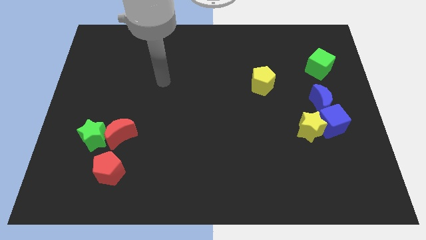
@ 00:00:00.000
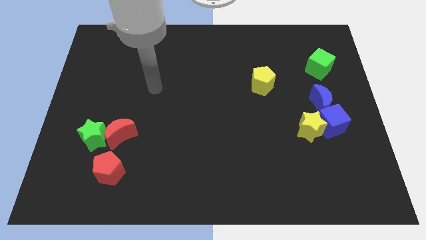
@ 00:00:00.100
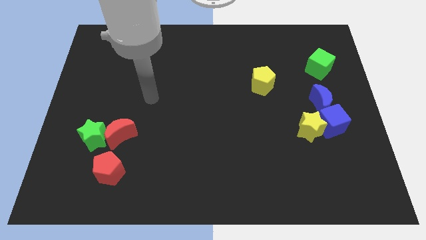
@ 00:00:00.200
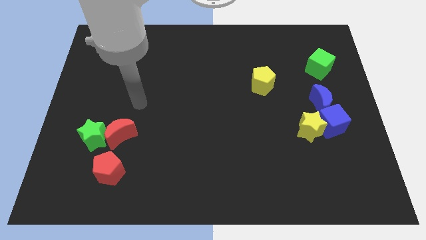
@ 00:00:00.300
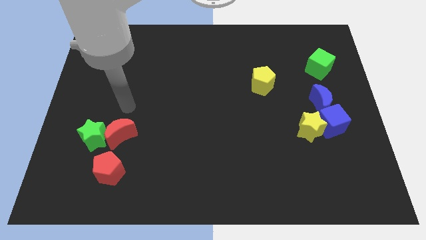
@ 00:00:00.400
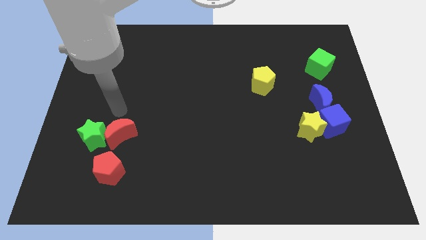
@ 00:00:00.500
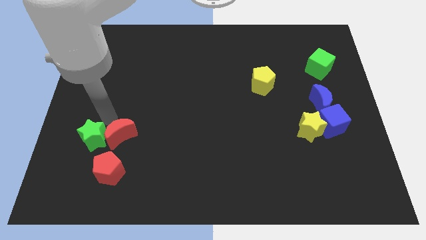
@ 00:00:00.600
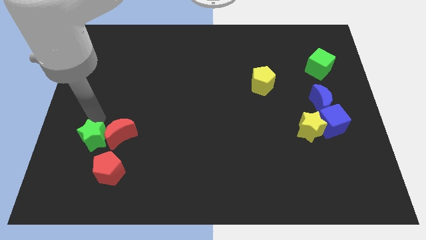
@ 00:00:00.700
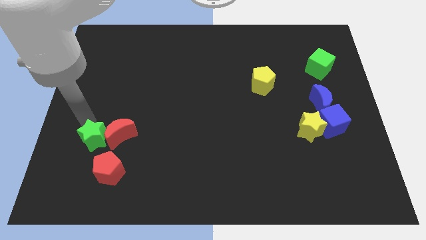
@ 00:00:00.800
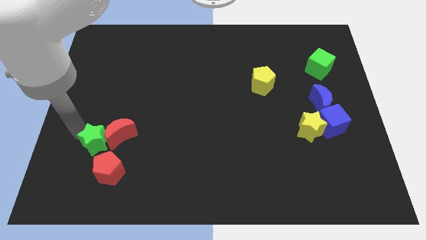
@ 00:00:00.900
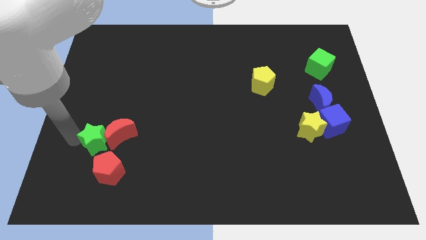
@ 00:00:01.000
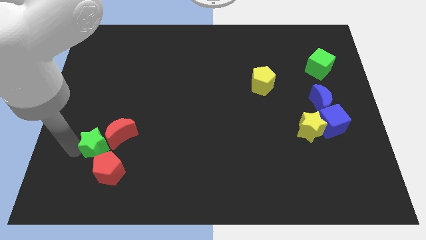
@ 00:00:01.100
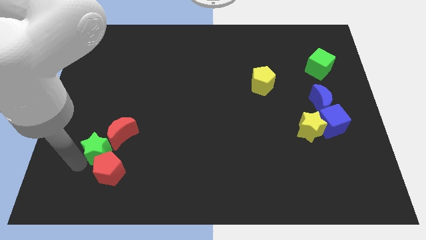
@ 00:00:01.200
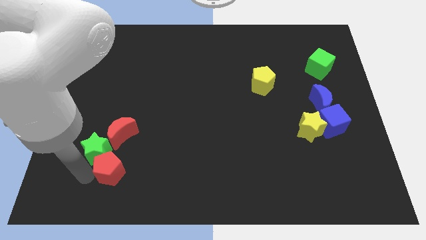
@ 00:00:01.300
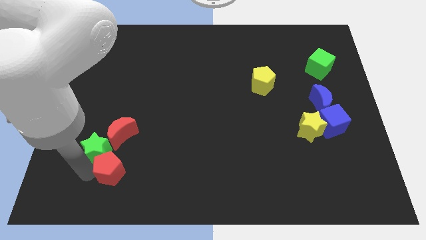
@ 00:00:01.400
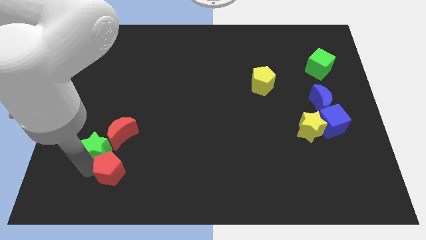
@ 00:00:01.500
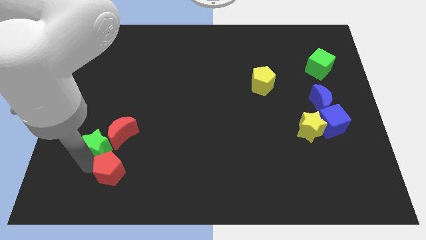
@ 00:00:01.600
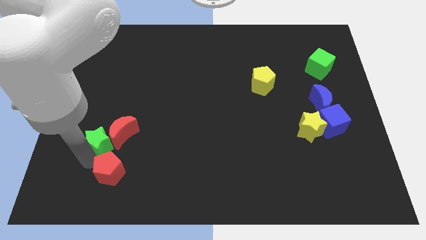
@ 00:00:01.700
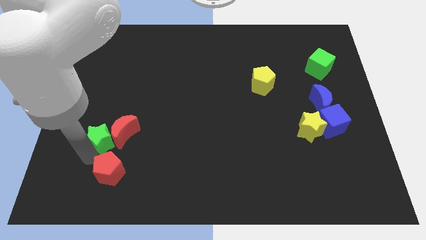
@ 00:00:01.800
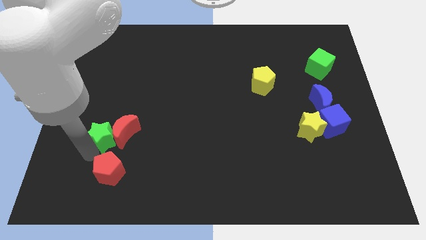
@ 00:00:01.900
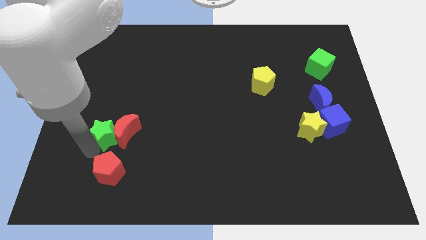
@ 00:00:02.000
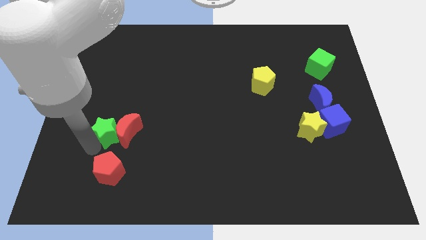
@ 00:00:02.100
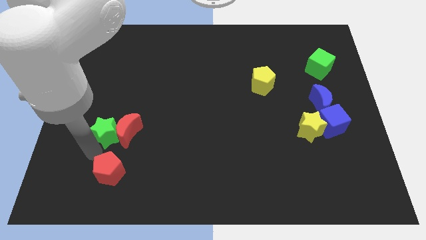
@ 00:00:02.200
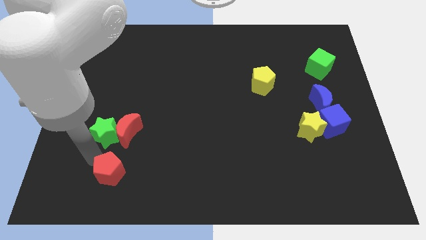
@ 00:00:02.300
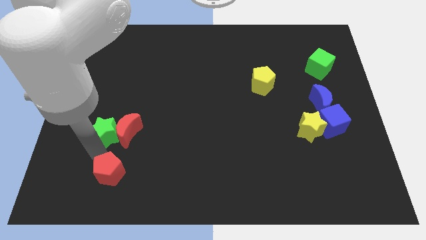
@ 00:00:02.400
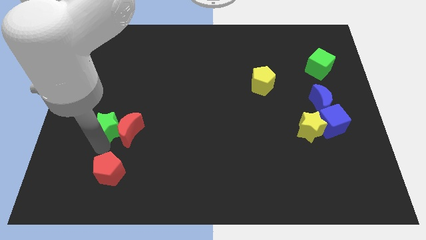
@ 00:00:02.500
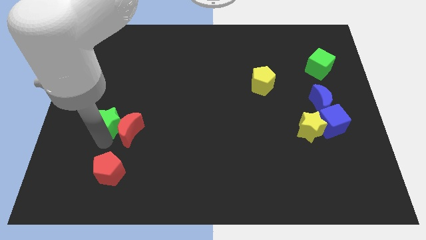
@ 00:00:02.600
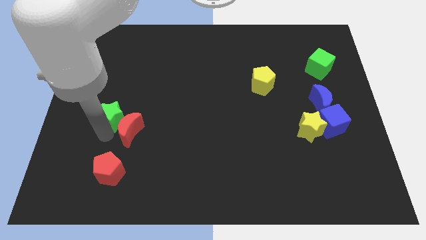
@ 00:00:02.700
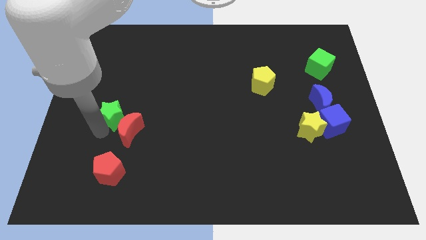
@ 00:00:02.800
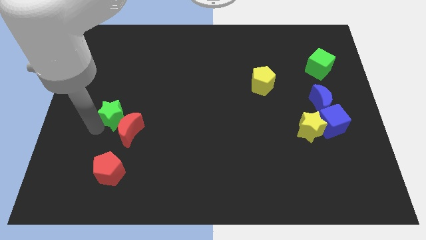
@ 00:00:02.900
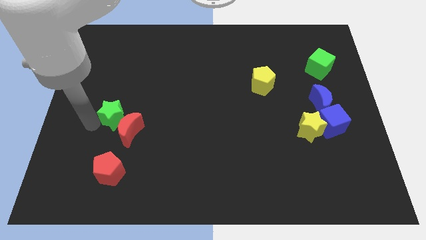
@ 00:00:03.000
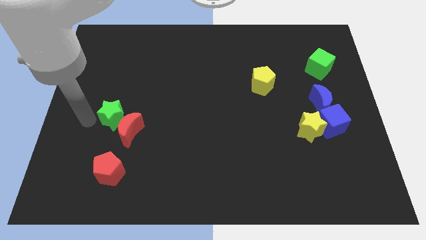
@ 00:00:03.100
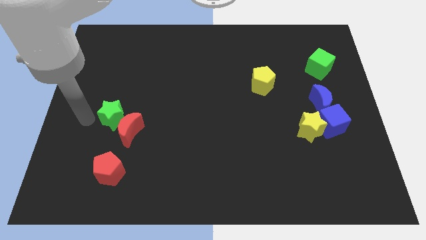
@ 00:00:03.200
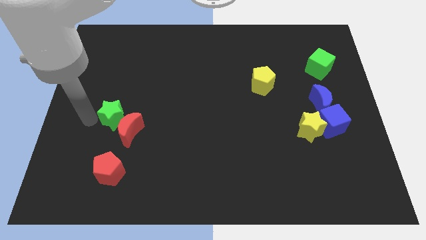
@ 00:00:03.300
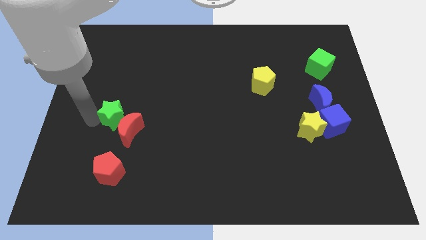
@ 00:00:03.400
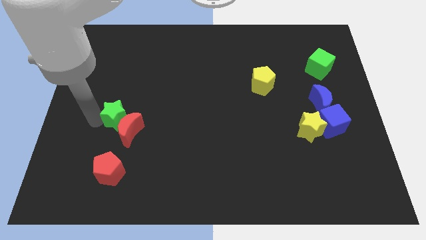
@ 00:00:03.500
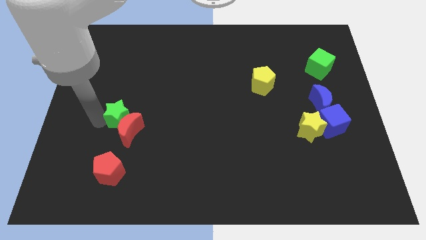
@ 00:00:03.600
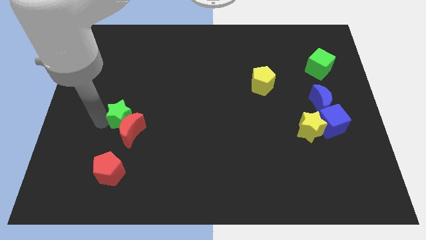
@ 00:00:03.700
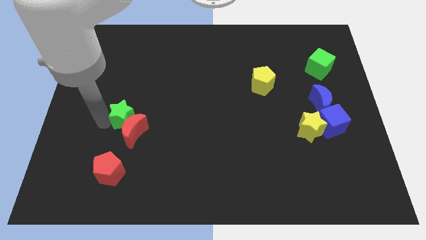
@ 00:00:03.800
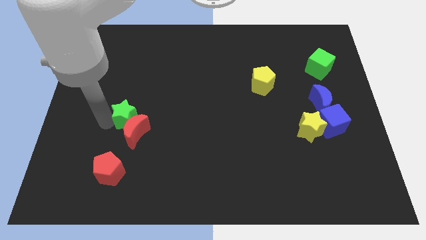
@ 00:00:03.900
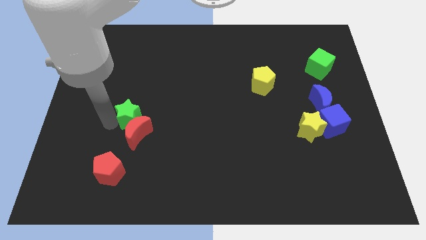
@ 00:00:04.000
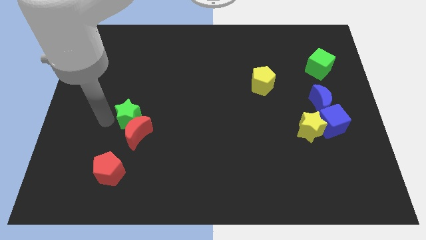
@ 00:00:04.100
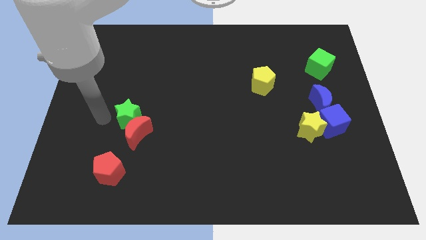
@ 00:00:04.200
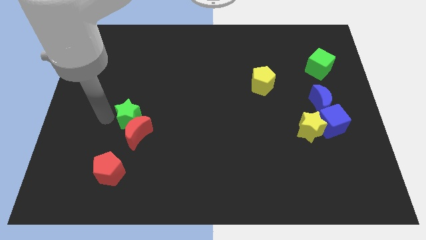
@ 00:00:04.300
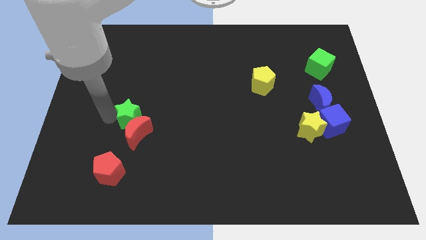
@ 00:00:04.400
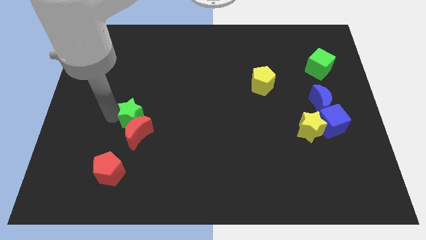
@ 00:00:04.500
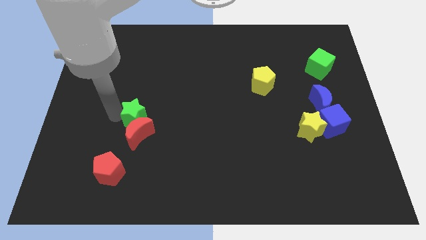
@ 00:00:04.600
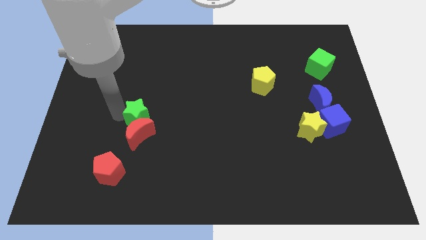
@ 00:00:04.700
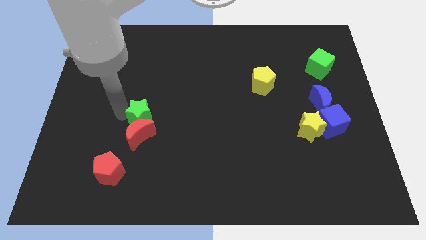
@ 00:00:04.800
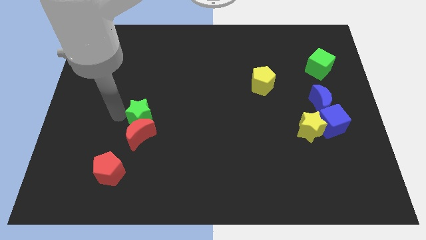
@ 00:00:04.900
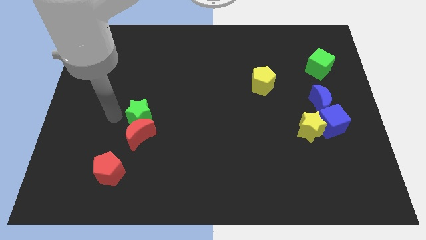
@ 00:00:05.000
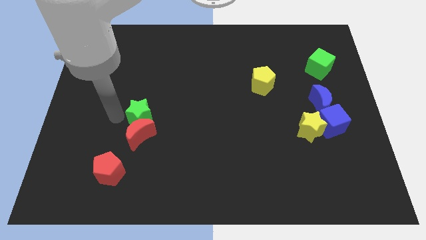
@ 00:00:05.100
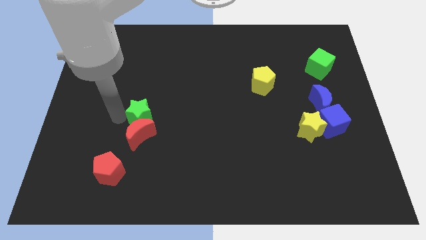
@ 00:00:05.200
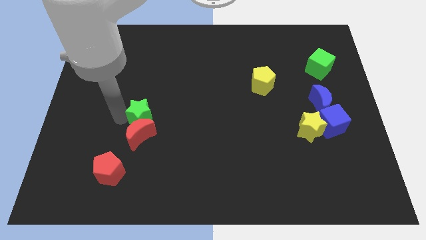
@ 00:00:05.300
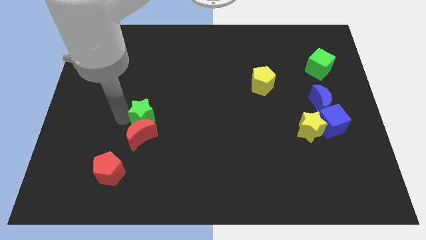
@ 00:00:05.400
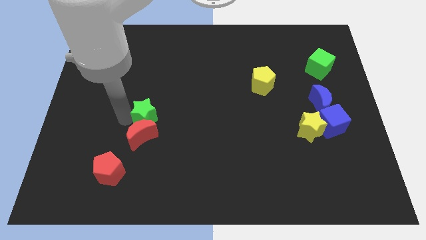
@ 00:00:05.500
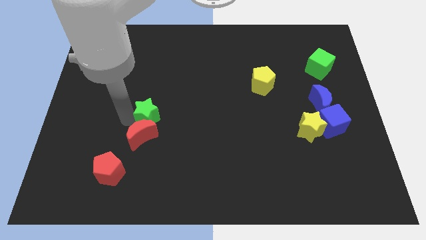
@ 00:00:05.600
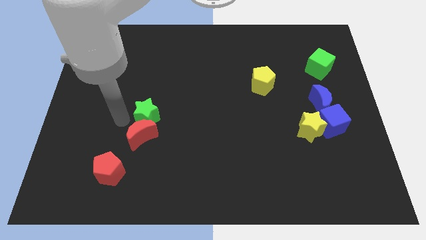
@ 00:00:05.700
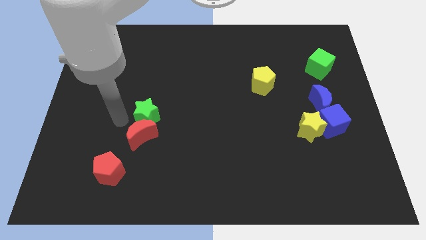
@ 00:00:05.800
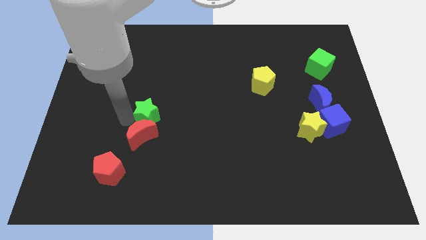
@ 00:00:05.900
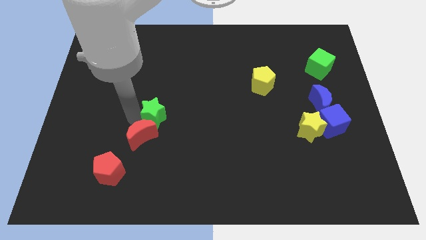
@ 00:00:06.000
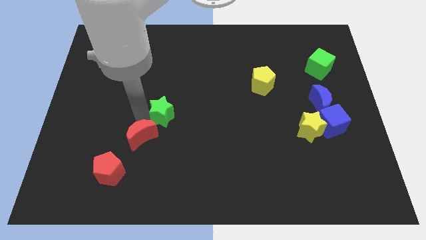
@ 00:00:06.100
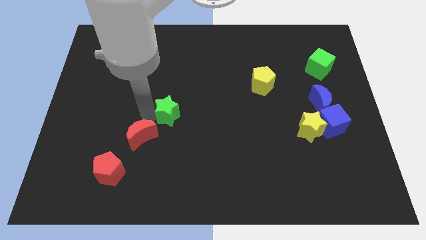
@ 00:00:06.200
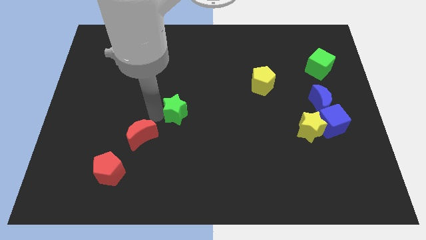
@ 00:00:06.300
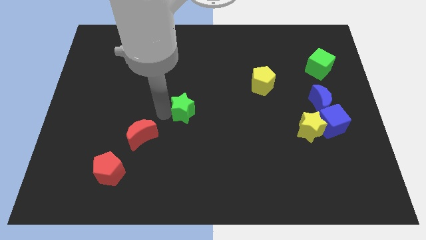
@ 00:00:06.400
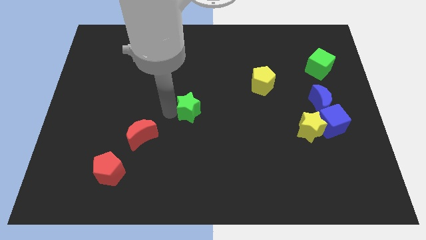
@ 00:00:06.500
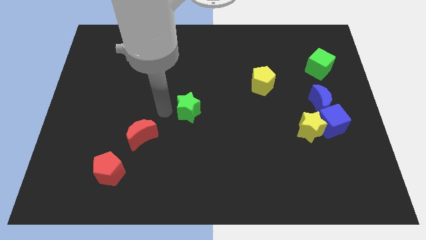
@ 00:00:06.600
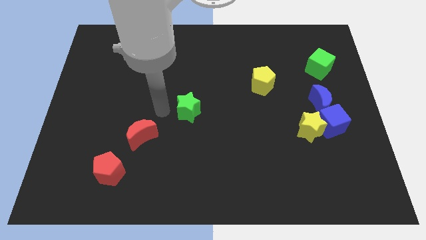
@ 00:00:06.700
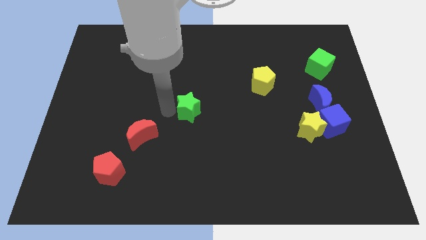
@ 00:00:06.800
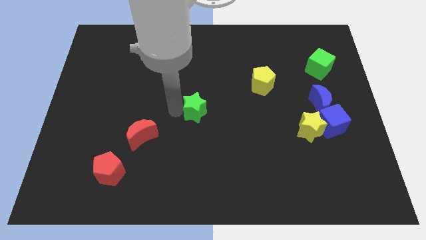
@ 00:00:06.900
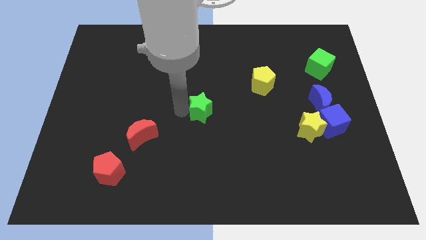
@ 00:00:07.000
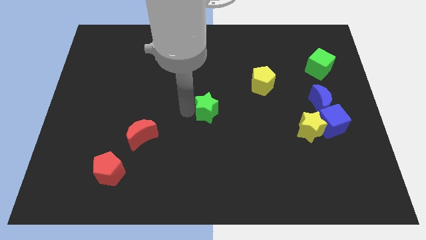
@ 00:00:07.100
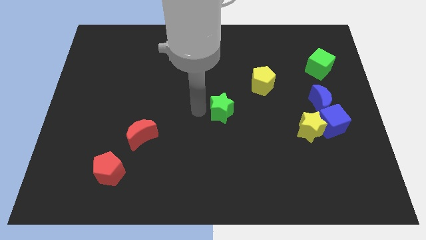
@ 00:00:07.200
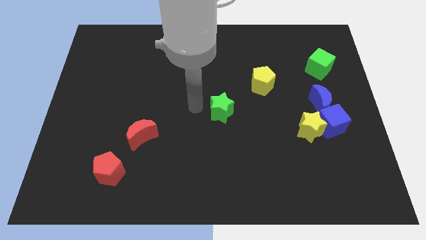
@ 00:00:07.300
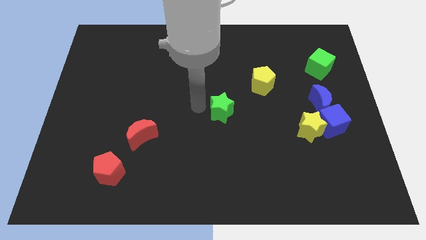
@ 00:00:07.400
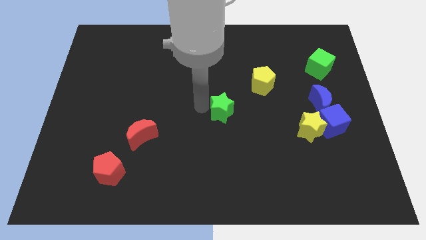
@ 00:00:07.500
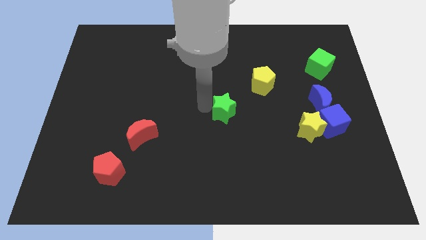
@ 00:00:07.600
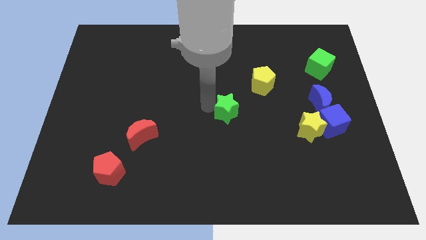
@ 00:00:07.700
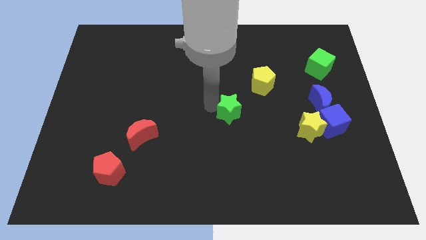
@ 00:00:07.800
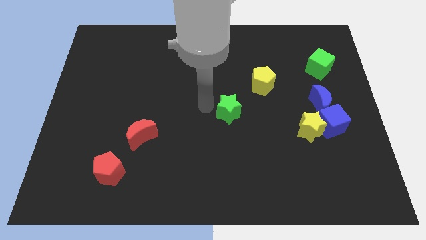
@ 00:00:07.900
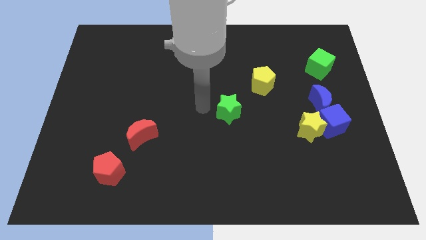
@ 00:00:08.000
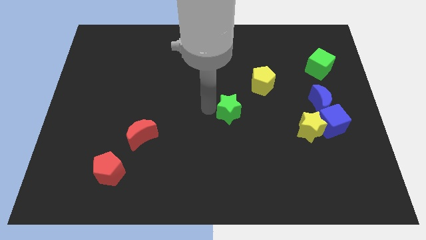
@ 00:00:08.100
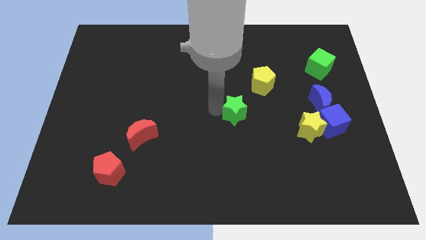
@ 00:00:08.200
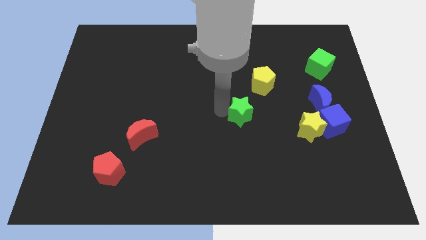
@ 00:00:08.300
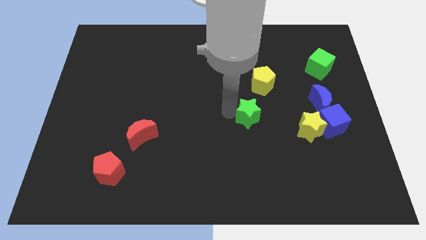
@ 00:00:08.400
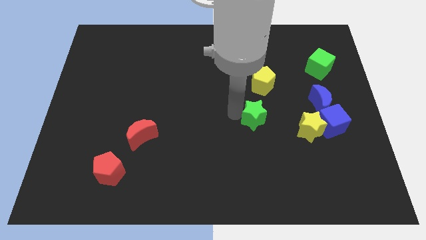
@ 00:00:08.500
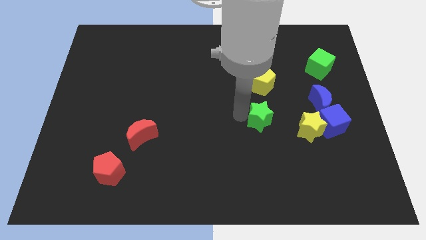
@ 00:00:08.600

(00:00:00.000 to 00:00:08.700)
slide the green star just left of the blue cube
